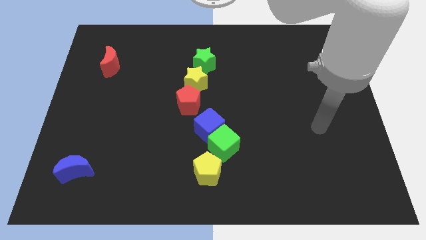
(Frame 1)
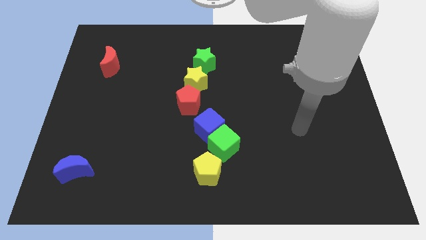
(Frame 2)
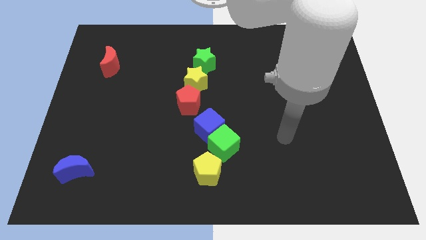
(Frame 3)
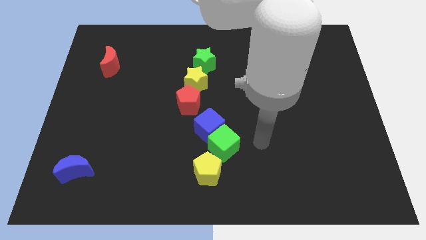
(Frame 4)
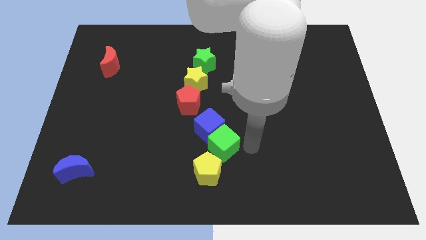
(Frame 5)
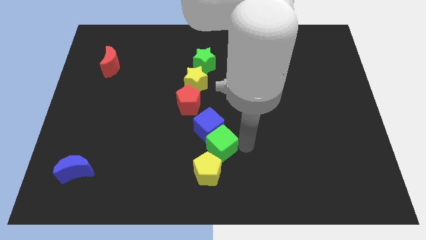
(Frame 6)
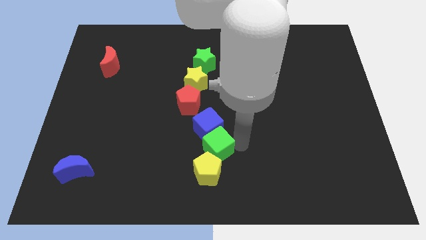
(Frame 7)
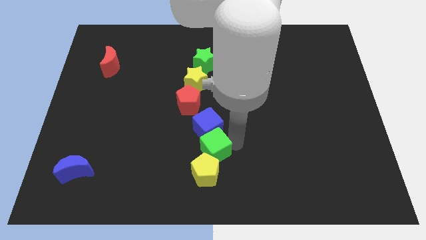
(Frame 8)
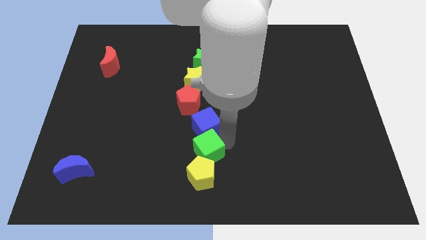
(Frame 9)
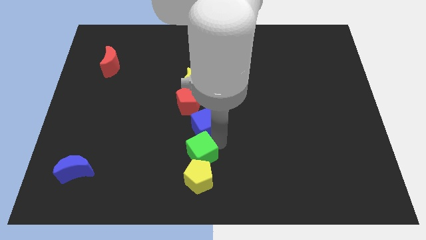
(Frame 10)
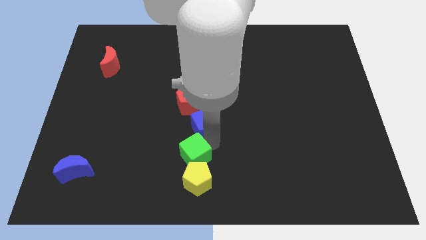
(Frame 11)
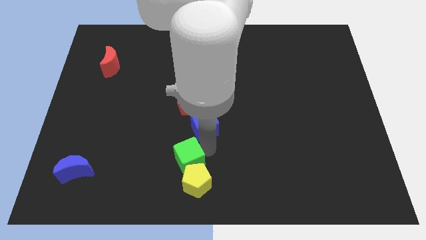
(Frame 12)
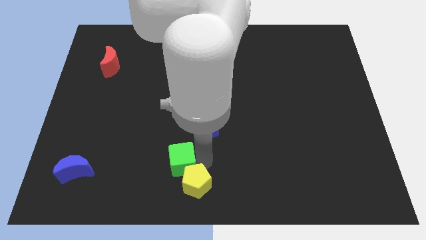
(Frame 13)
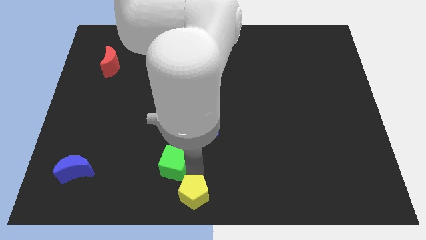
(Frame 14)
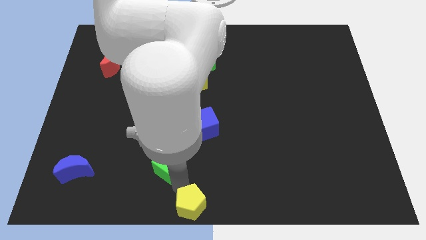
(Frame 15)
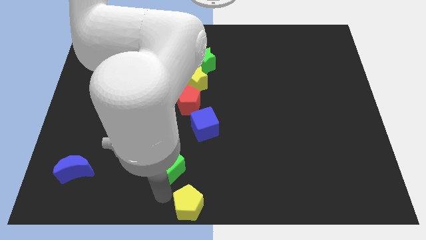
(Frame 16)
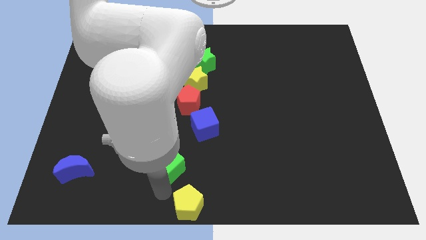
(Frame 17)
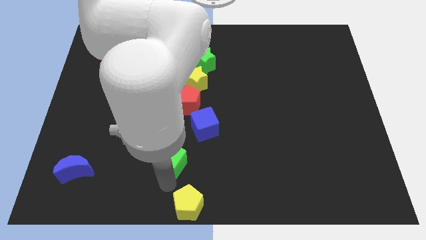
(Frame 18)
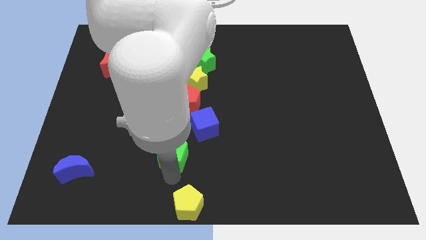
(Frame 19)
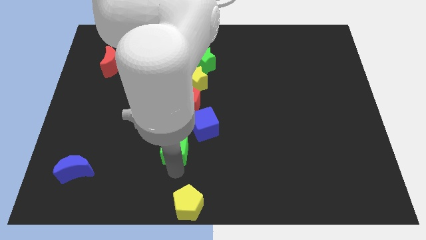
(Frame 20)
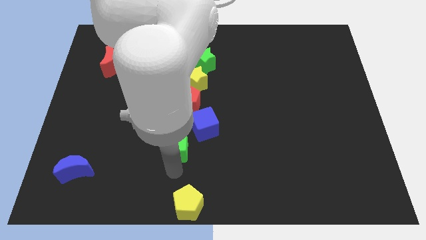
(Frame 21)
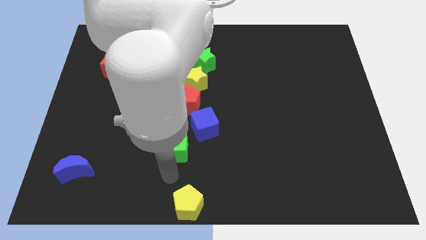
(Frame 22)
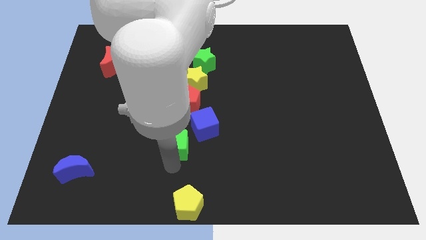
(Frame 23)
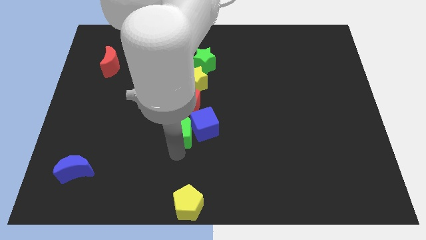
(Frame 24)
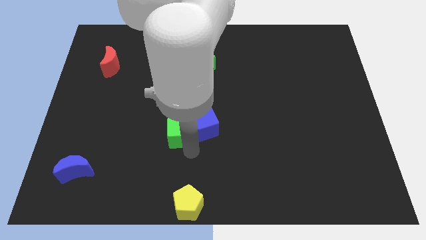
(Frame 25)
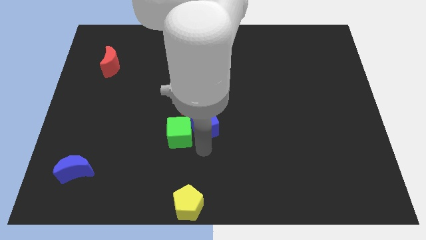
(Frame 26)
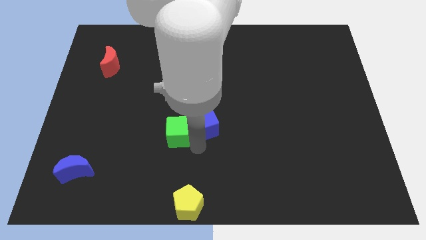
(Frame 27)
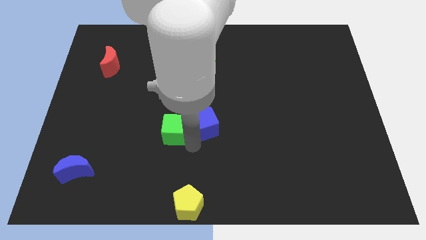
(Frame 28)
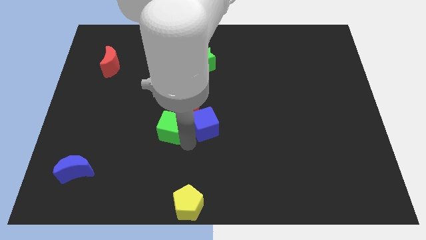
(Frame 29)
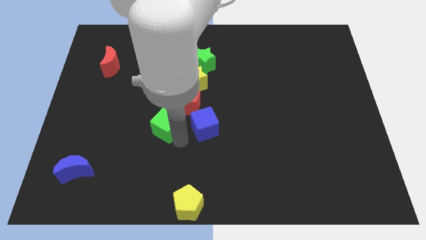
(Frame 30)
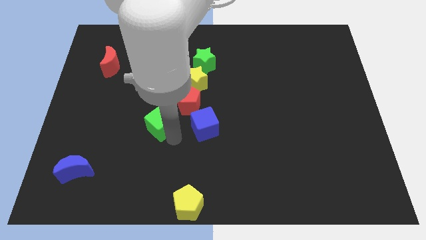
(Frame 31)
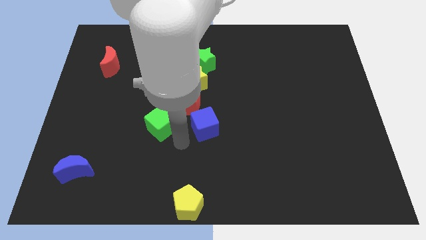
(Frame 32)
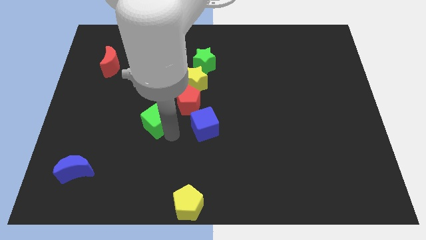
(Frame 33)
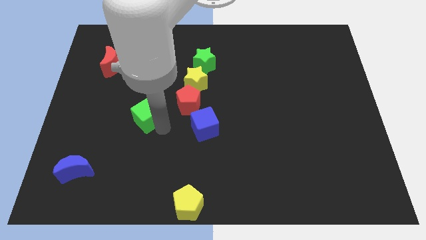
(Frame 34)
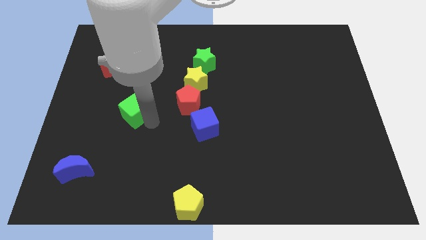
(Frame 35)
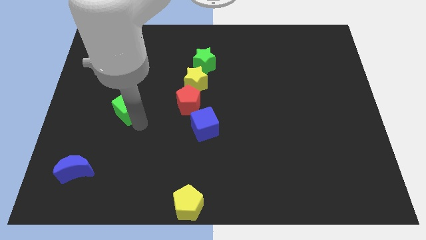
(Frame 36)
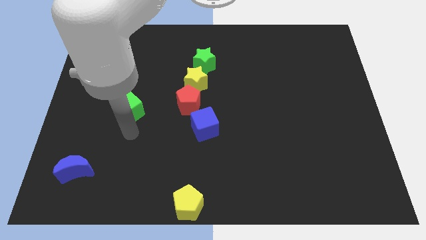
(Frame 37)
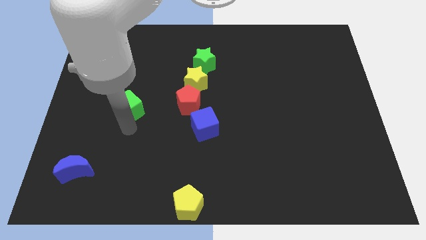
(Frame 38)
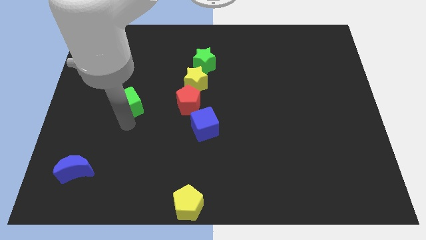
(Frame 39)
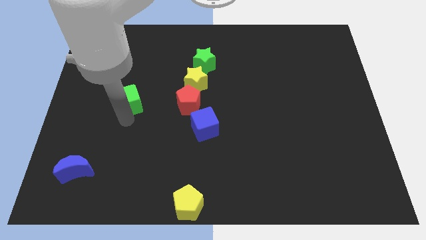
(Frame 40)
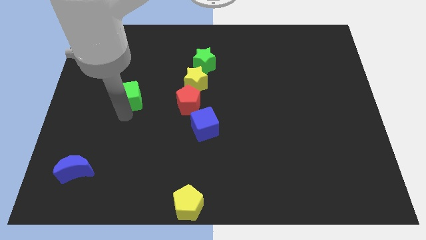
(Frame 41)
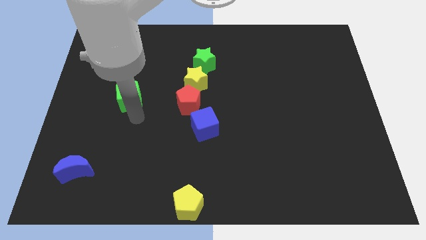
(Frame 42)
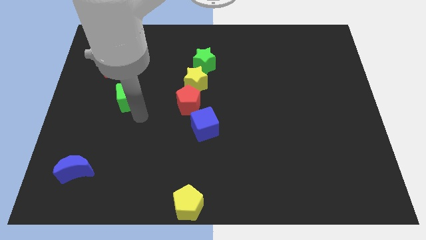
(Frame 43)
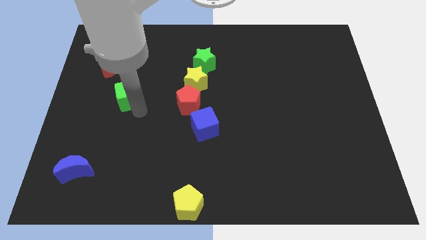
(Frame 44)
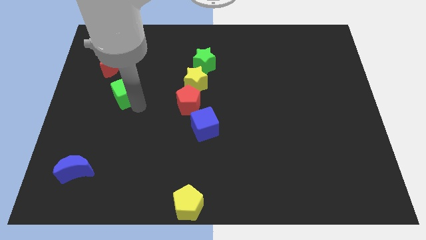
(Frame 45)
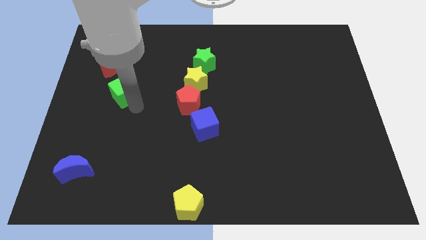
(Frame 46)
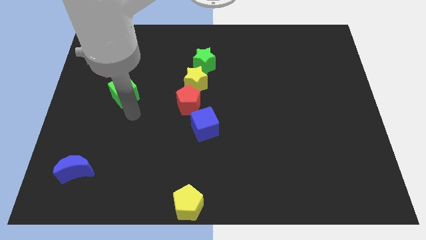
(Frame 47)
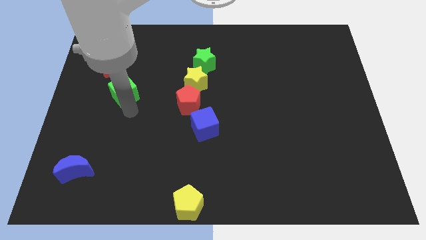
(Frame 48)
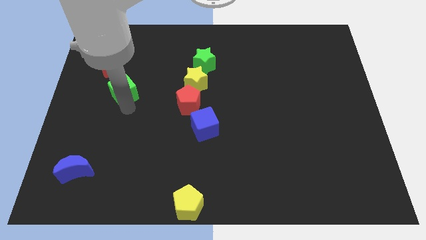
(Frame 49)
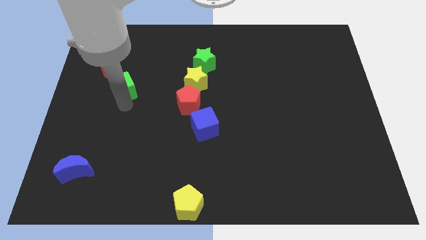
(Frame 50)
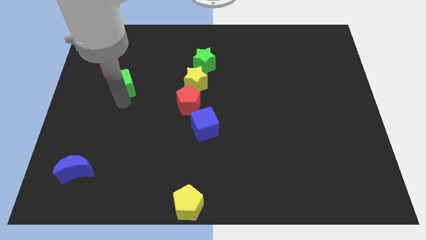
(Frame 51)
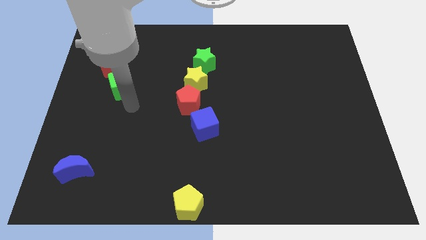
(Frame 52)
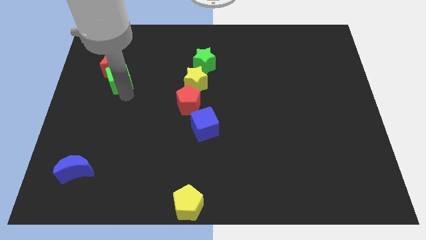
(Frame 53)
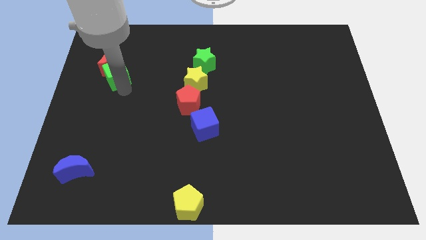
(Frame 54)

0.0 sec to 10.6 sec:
push the green cube towards the red moon

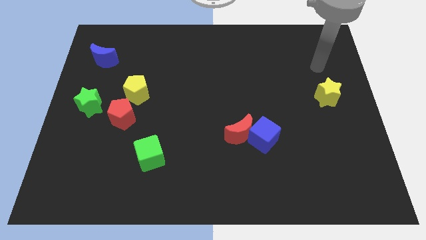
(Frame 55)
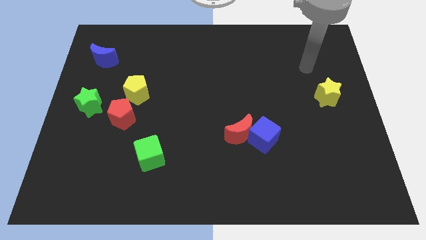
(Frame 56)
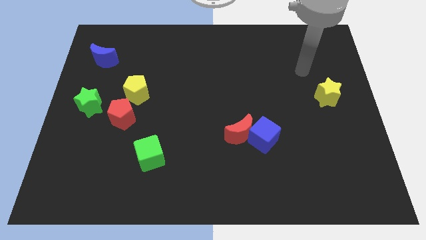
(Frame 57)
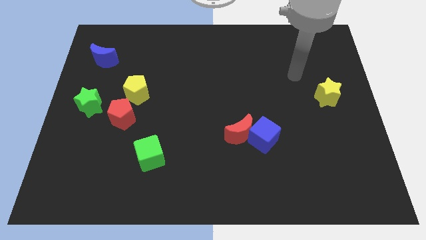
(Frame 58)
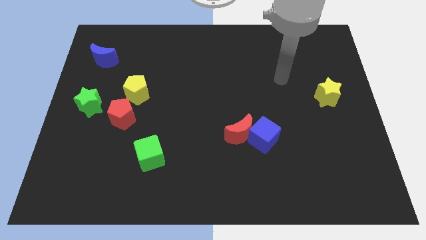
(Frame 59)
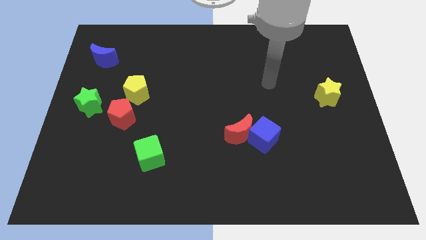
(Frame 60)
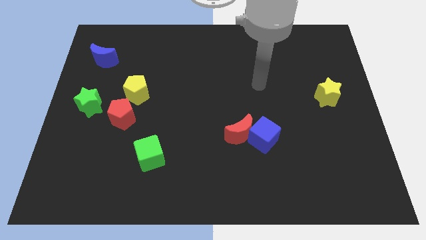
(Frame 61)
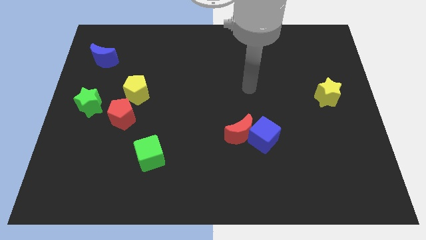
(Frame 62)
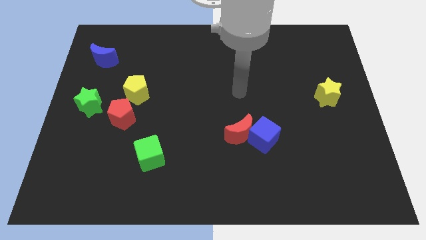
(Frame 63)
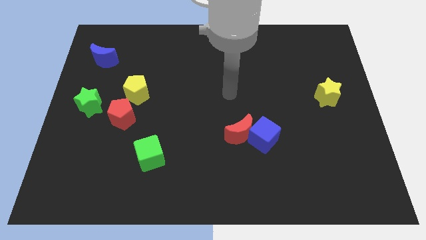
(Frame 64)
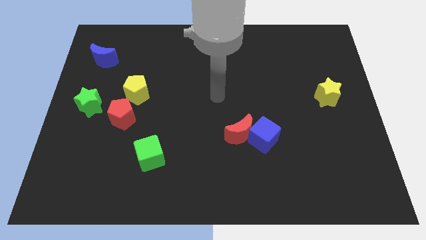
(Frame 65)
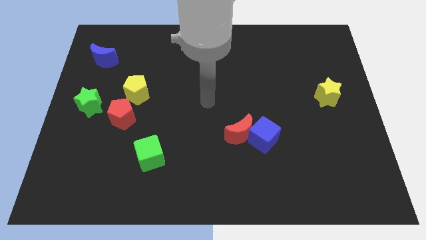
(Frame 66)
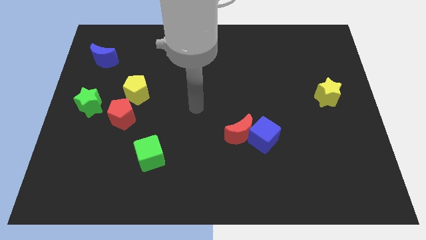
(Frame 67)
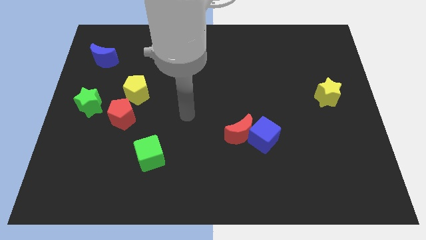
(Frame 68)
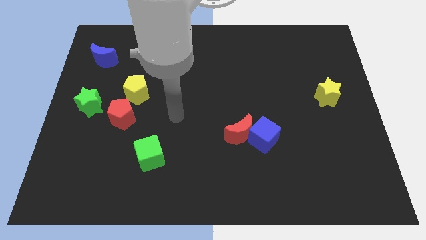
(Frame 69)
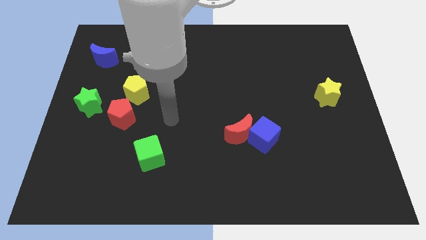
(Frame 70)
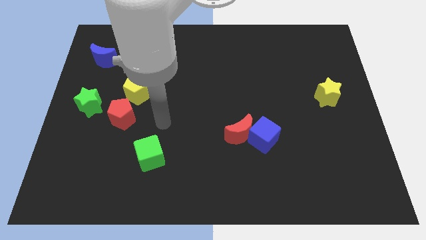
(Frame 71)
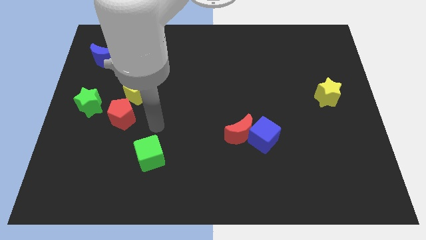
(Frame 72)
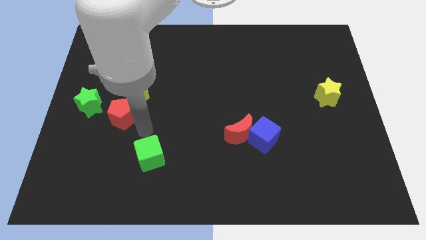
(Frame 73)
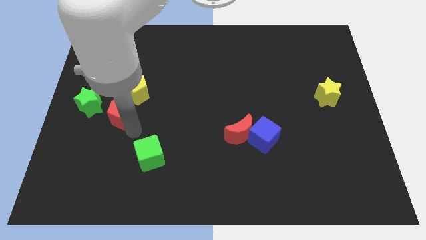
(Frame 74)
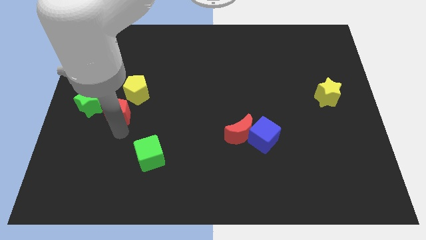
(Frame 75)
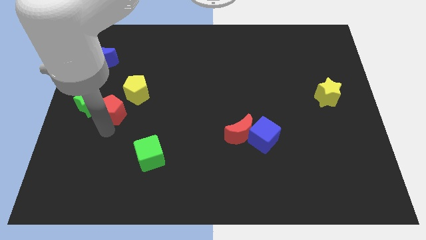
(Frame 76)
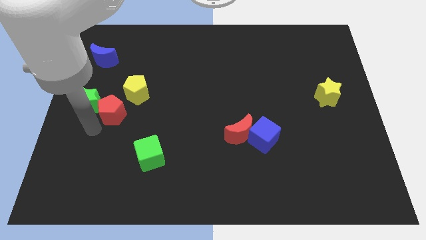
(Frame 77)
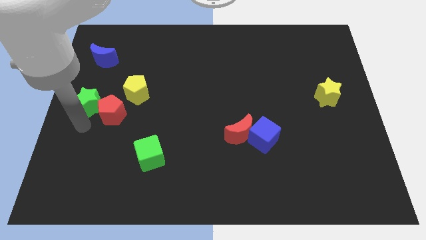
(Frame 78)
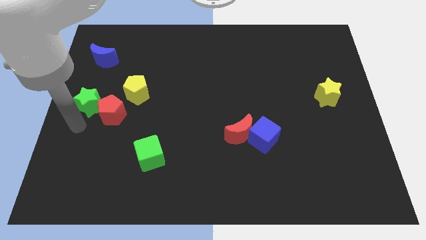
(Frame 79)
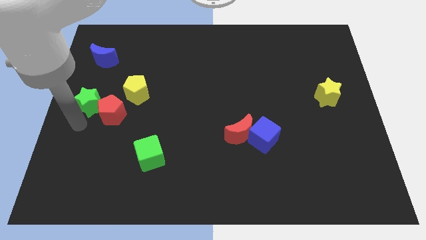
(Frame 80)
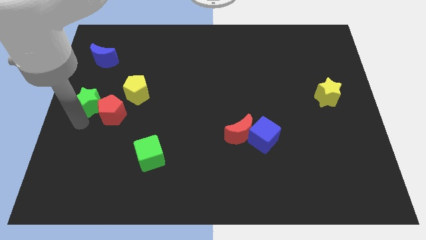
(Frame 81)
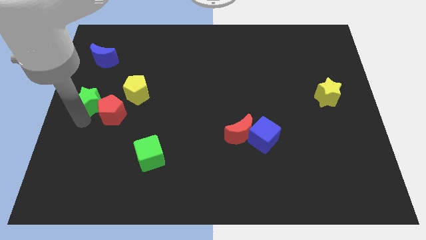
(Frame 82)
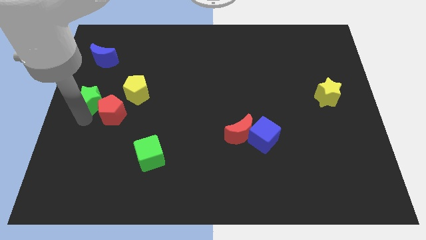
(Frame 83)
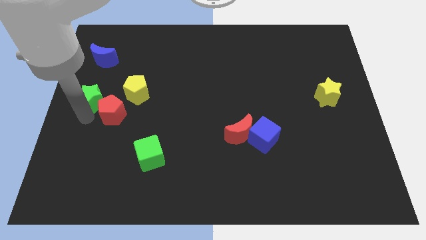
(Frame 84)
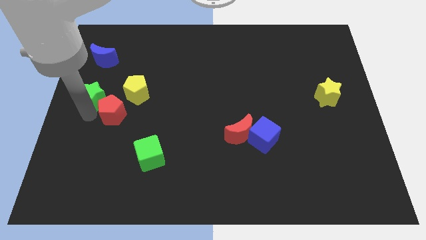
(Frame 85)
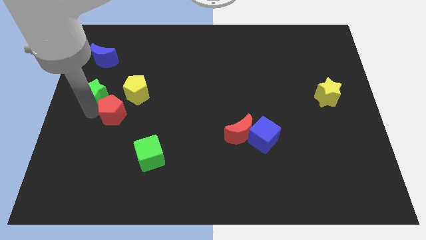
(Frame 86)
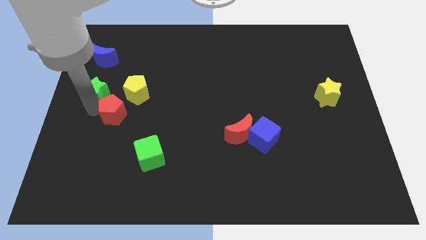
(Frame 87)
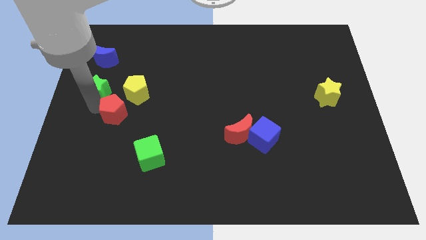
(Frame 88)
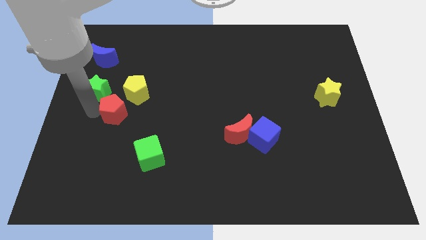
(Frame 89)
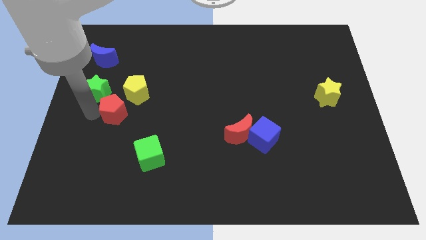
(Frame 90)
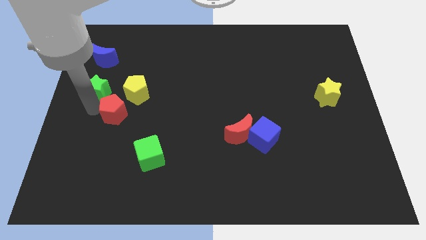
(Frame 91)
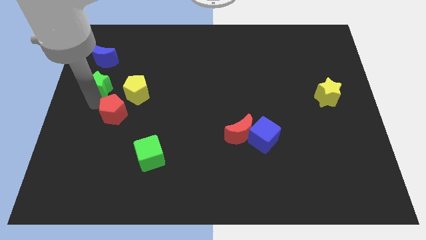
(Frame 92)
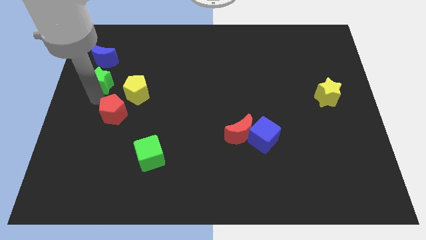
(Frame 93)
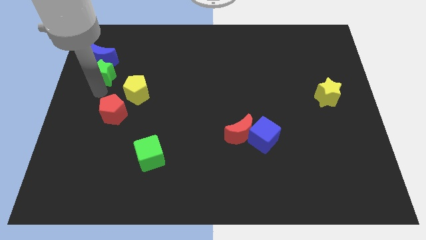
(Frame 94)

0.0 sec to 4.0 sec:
slide the green star next to the blue moon
